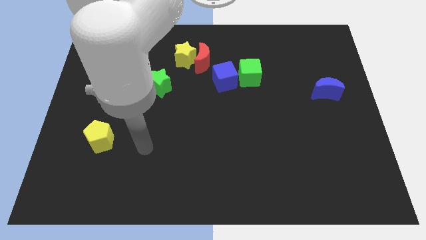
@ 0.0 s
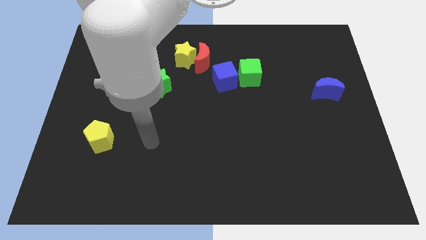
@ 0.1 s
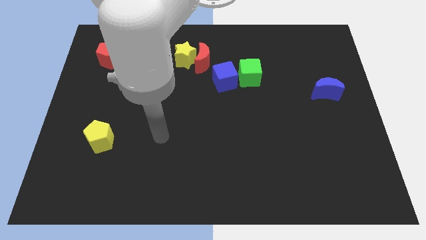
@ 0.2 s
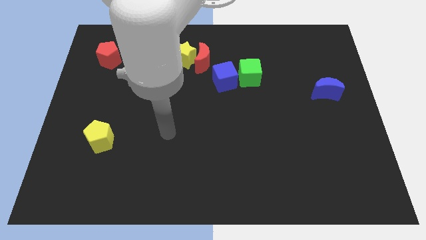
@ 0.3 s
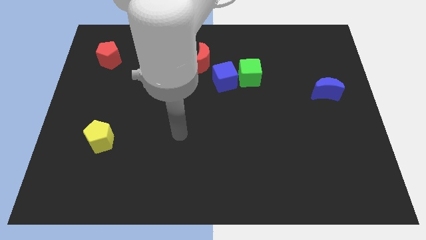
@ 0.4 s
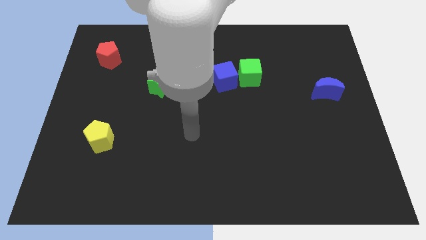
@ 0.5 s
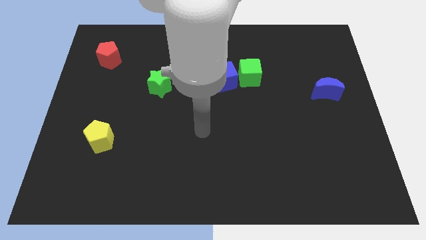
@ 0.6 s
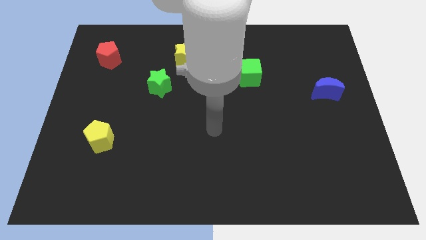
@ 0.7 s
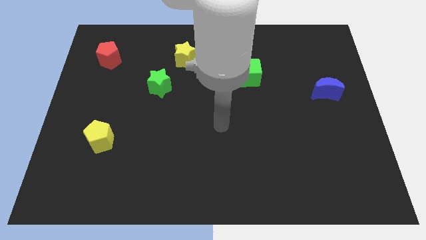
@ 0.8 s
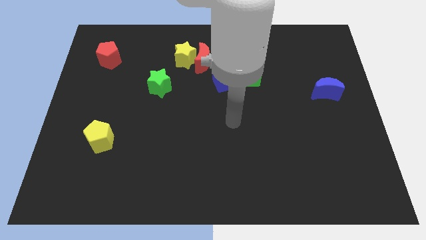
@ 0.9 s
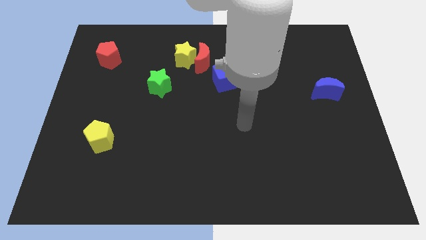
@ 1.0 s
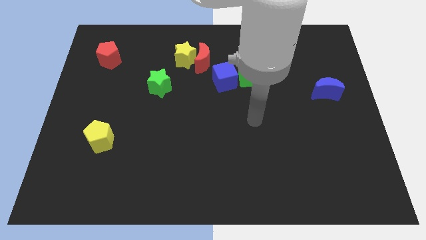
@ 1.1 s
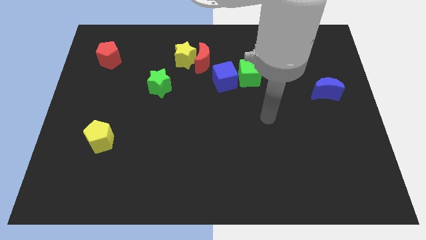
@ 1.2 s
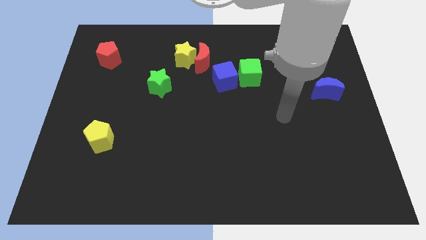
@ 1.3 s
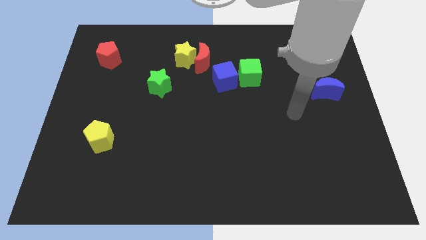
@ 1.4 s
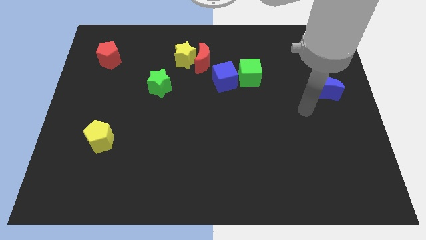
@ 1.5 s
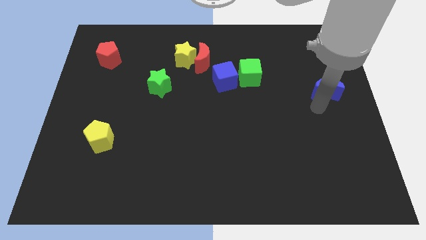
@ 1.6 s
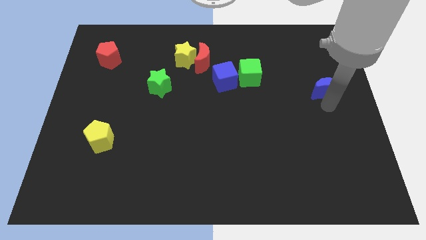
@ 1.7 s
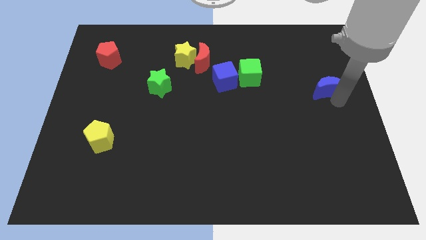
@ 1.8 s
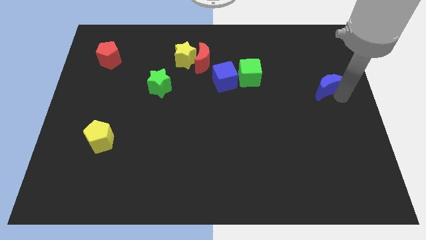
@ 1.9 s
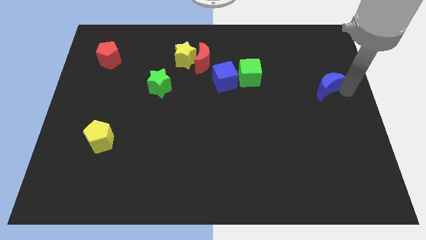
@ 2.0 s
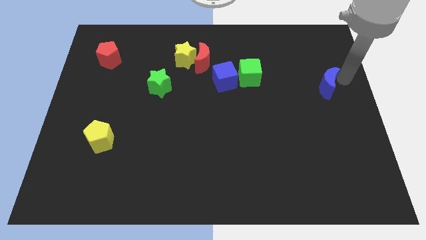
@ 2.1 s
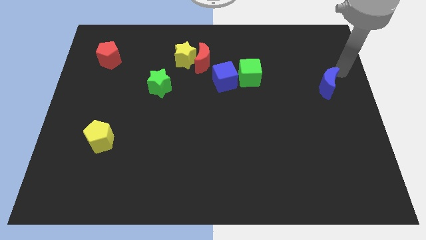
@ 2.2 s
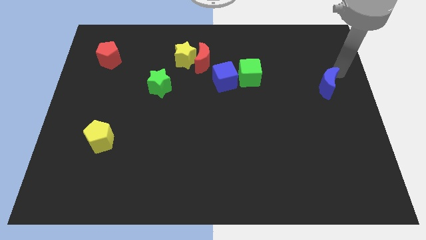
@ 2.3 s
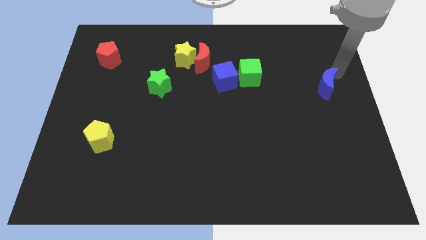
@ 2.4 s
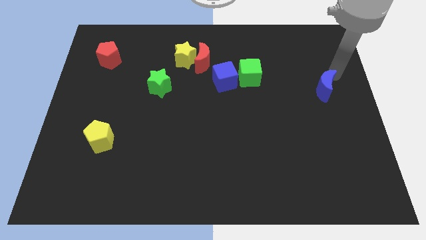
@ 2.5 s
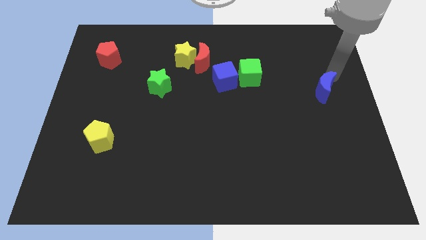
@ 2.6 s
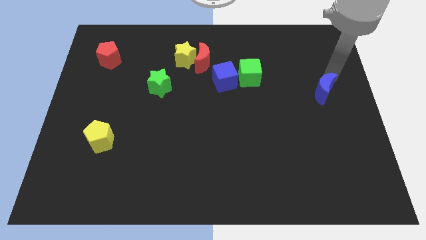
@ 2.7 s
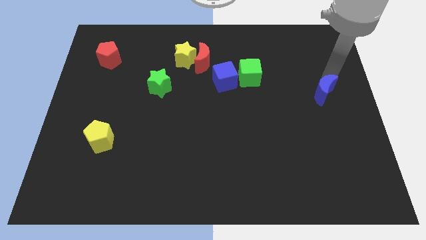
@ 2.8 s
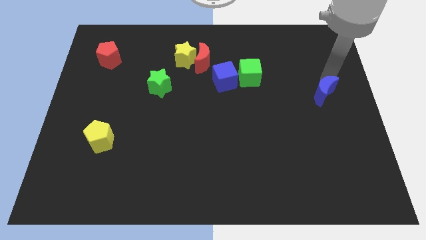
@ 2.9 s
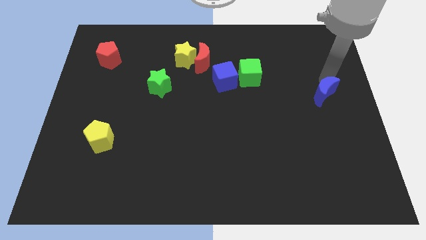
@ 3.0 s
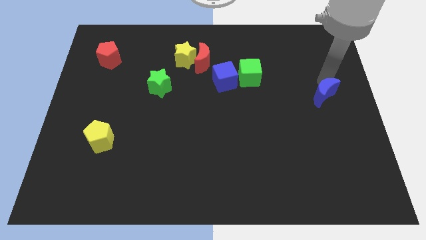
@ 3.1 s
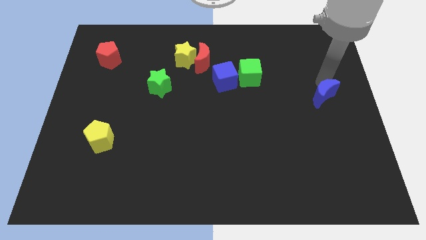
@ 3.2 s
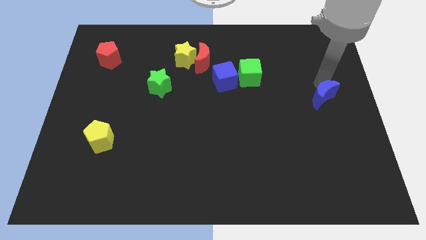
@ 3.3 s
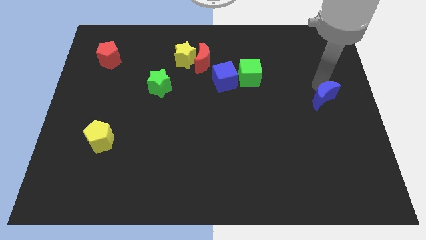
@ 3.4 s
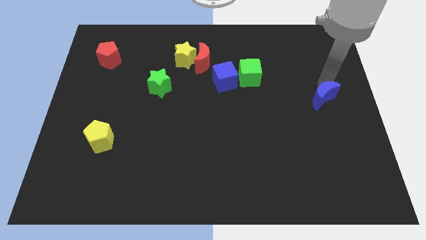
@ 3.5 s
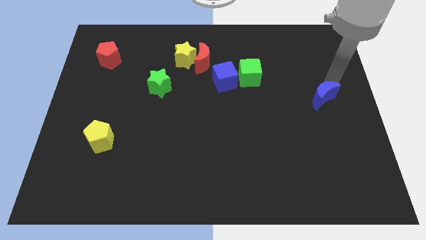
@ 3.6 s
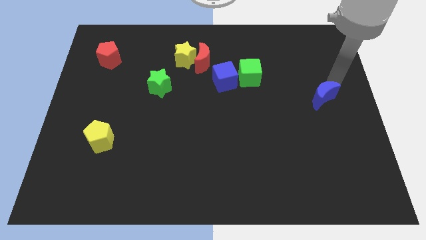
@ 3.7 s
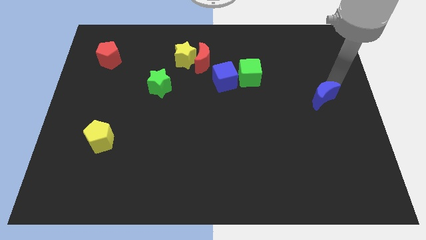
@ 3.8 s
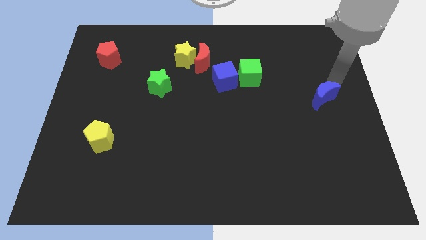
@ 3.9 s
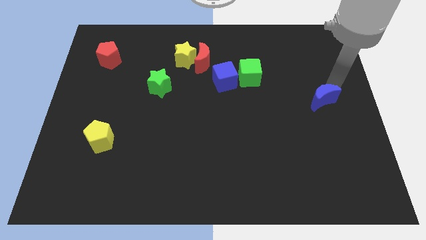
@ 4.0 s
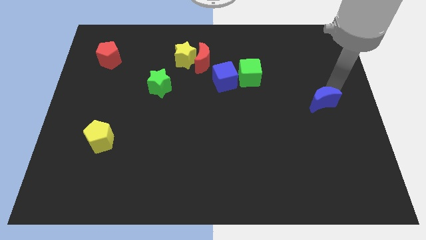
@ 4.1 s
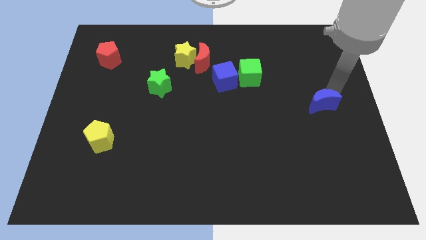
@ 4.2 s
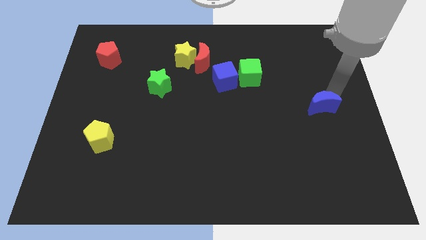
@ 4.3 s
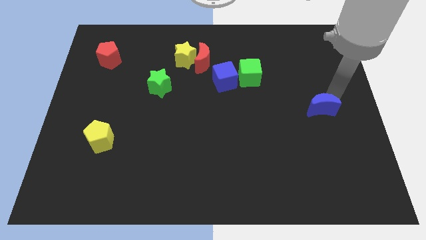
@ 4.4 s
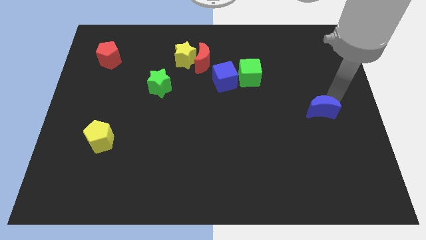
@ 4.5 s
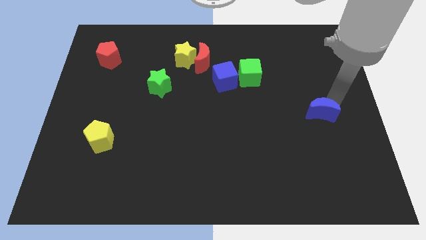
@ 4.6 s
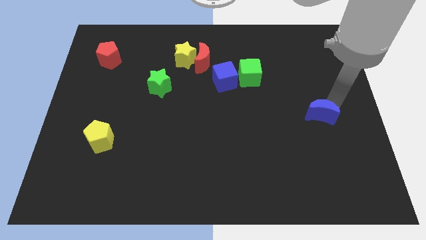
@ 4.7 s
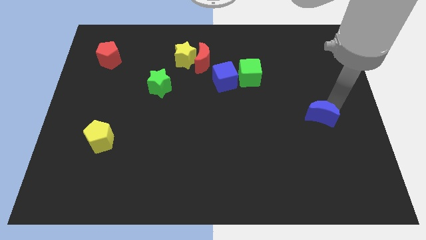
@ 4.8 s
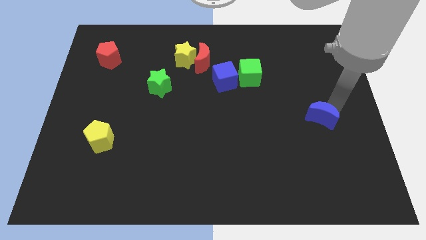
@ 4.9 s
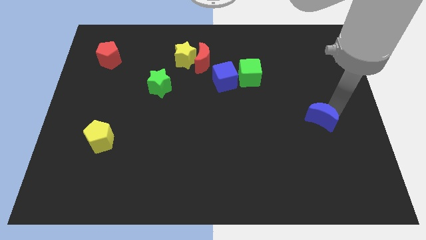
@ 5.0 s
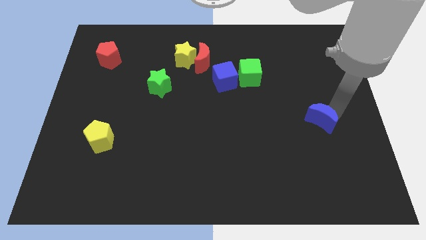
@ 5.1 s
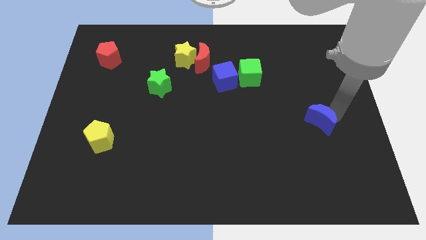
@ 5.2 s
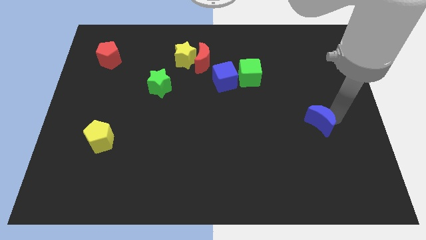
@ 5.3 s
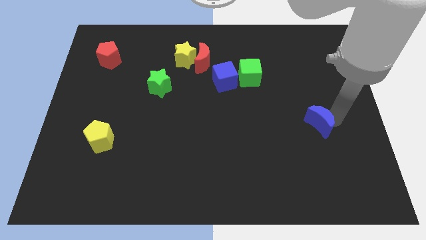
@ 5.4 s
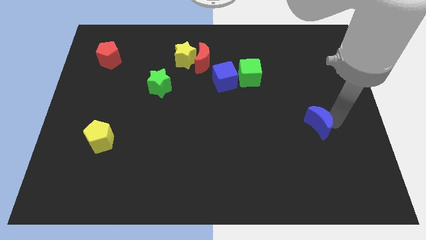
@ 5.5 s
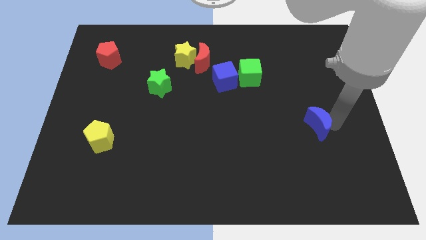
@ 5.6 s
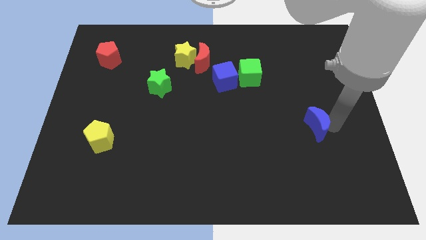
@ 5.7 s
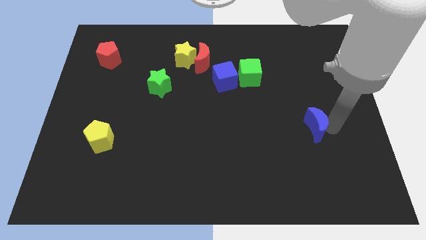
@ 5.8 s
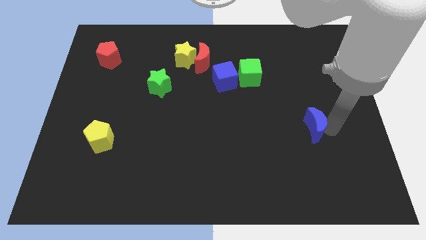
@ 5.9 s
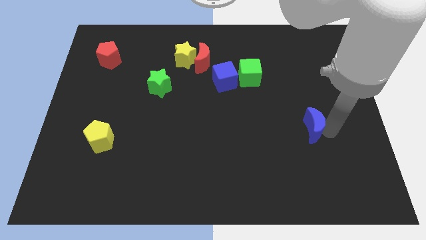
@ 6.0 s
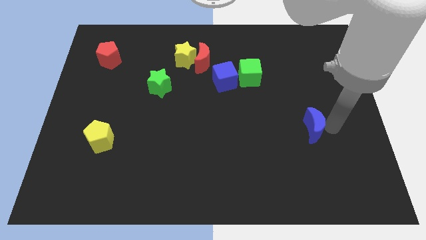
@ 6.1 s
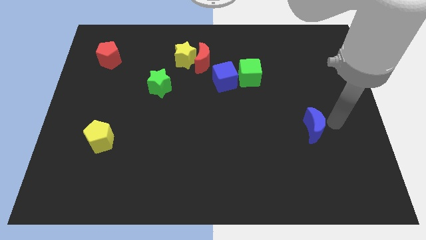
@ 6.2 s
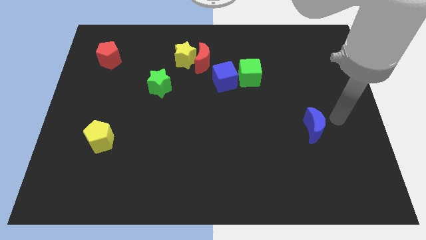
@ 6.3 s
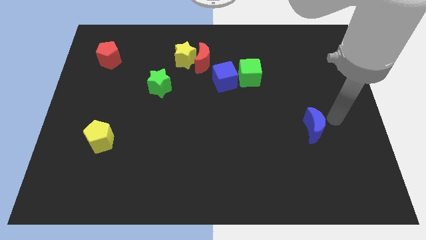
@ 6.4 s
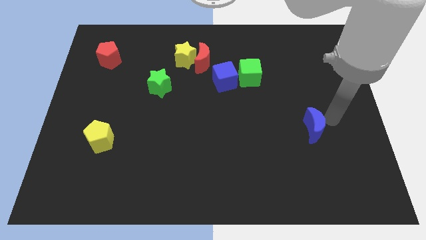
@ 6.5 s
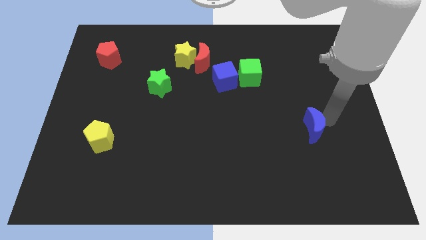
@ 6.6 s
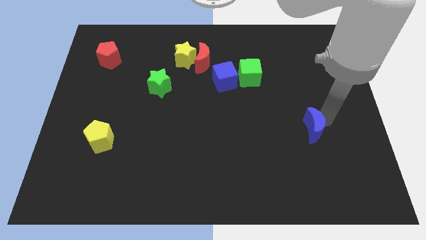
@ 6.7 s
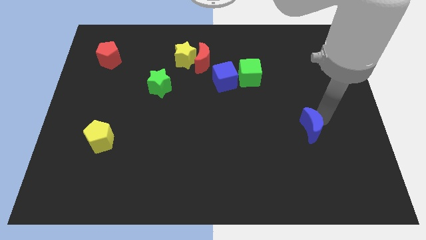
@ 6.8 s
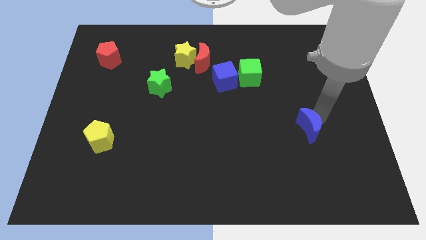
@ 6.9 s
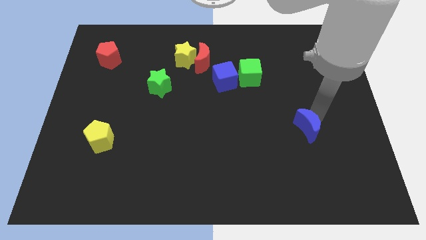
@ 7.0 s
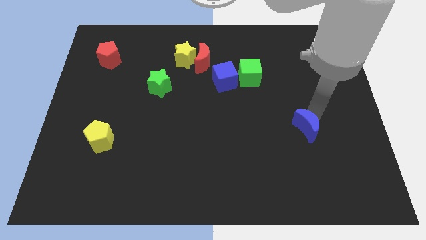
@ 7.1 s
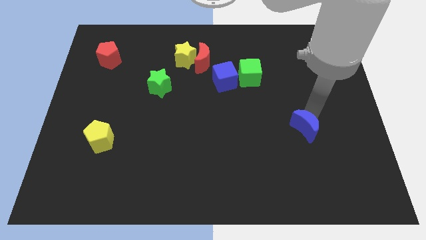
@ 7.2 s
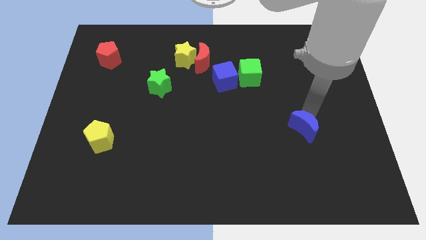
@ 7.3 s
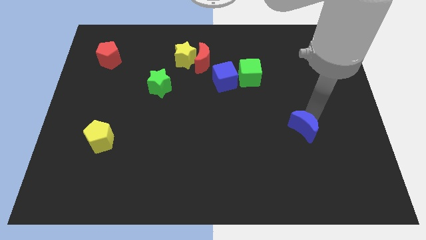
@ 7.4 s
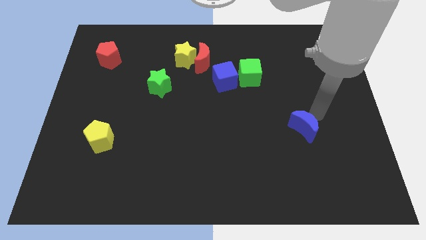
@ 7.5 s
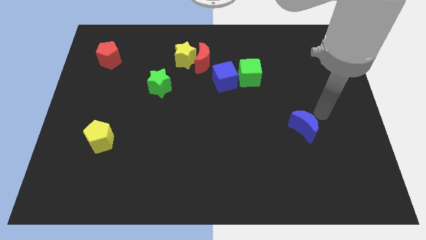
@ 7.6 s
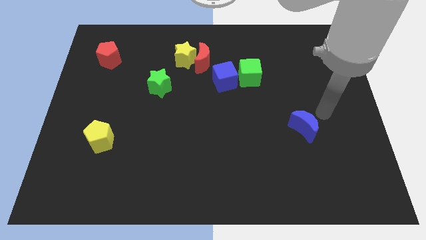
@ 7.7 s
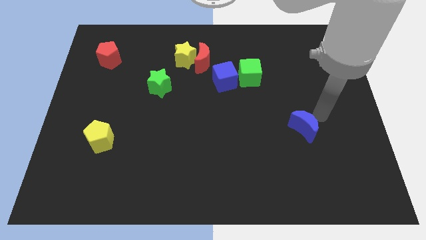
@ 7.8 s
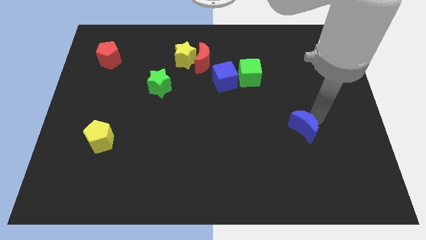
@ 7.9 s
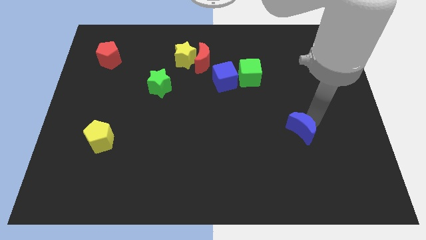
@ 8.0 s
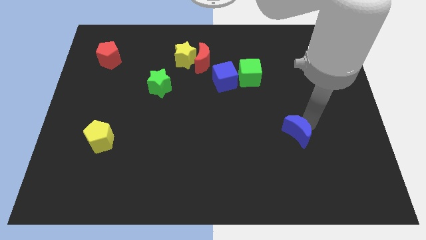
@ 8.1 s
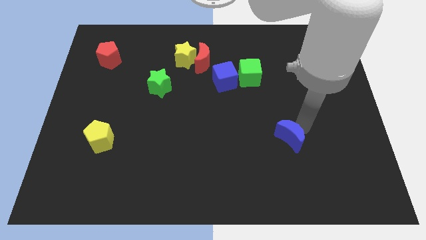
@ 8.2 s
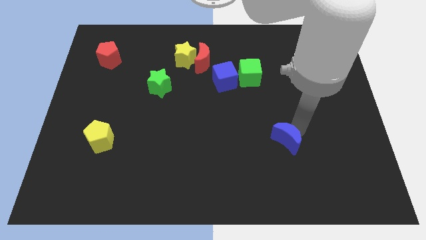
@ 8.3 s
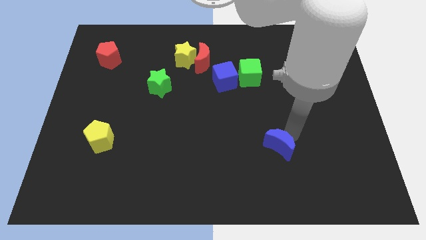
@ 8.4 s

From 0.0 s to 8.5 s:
move the blue moon downwards and to the left
